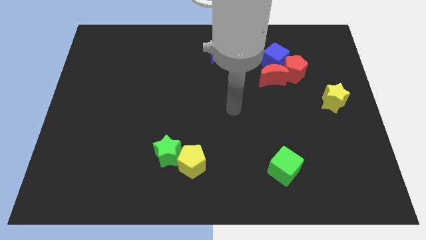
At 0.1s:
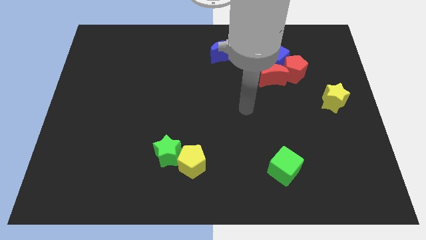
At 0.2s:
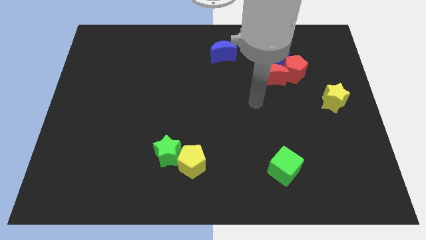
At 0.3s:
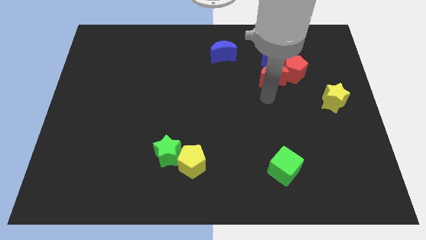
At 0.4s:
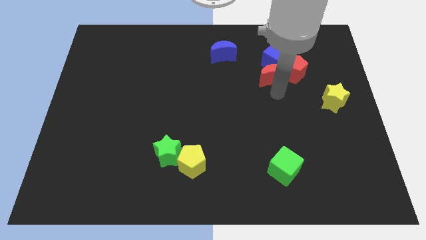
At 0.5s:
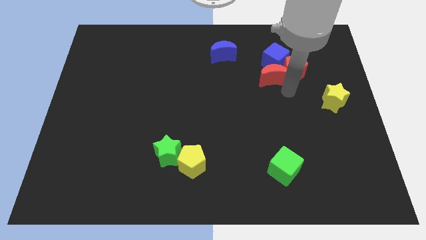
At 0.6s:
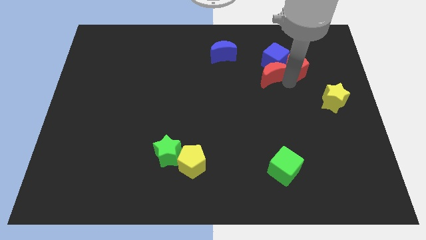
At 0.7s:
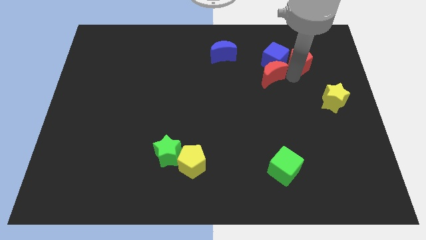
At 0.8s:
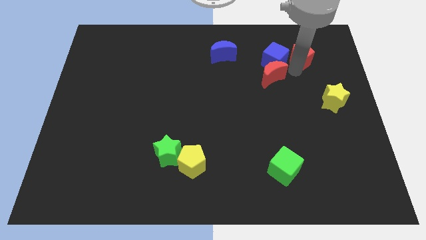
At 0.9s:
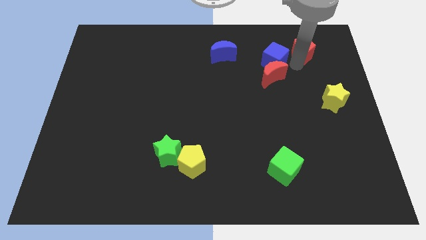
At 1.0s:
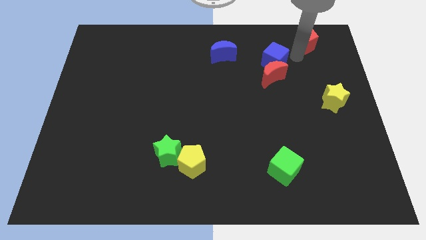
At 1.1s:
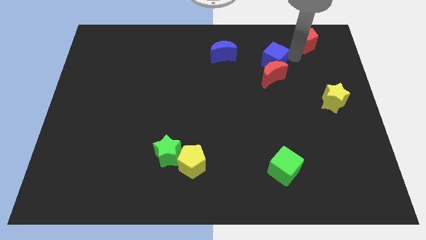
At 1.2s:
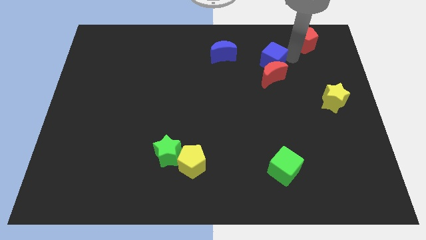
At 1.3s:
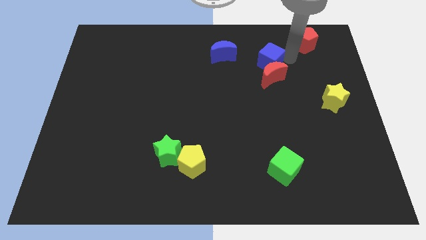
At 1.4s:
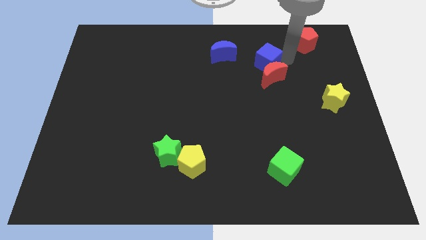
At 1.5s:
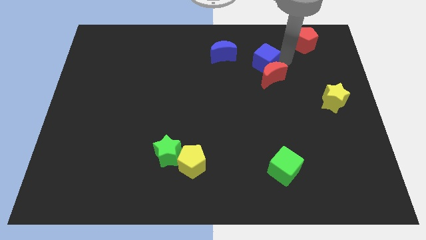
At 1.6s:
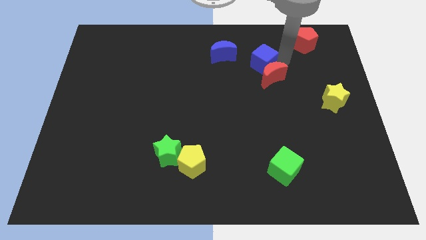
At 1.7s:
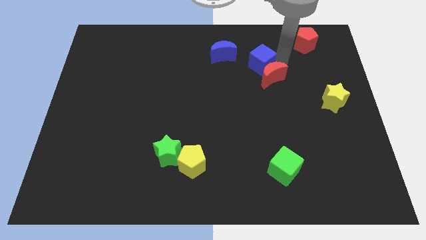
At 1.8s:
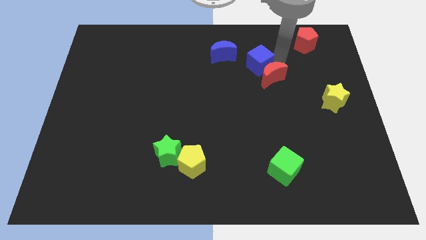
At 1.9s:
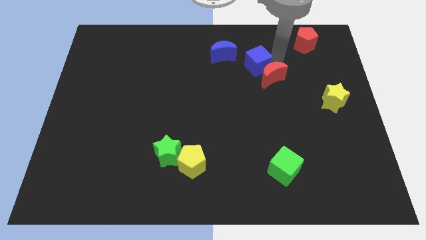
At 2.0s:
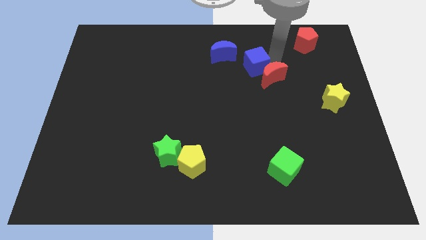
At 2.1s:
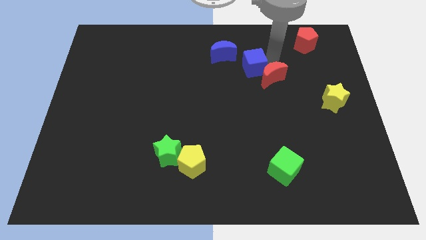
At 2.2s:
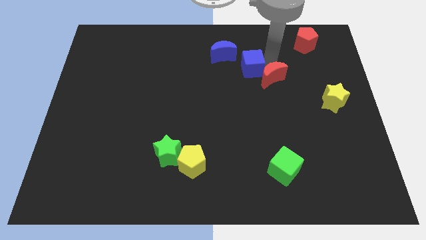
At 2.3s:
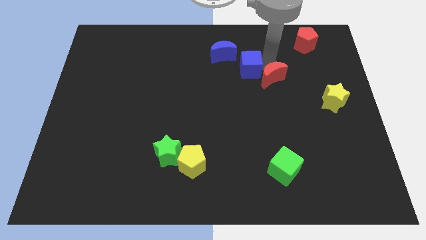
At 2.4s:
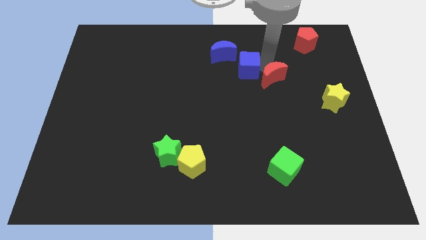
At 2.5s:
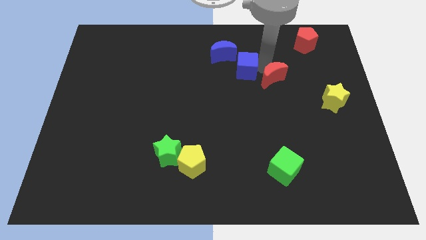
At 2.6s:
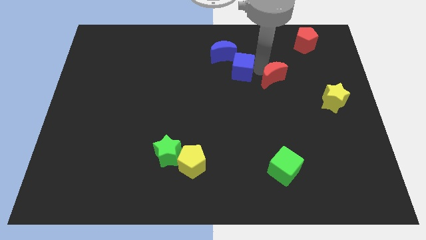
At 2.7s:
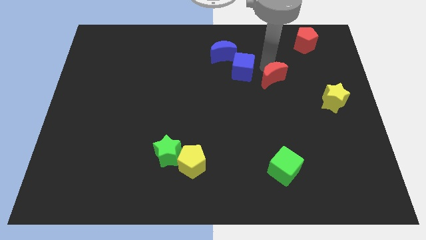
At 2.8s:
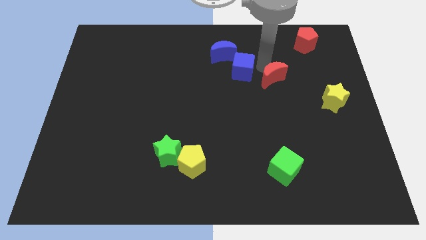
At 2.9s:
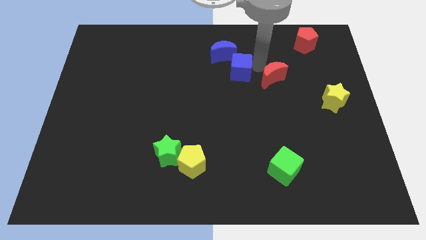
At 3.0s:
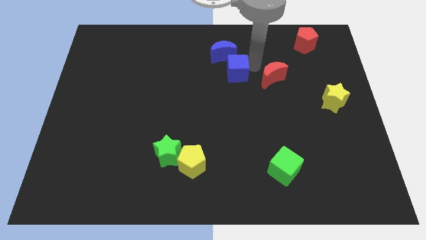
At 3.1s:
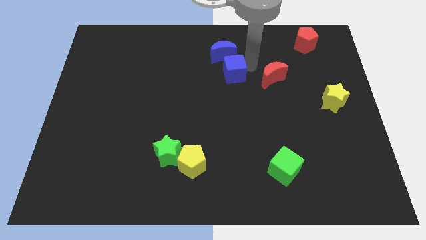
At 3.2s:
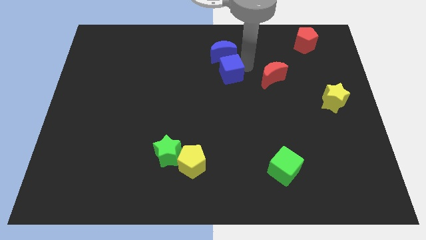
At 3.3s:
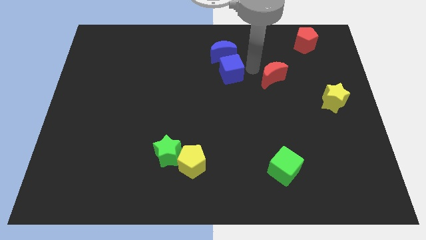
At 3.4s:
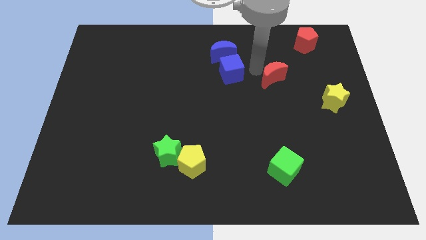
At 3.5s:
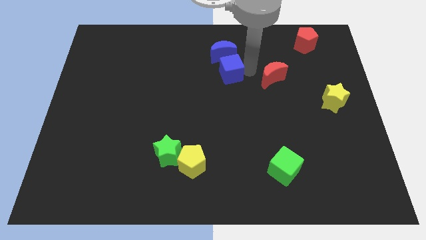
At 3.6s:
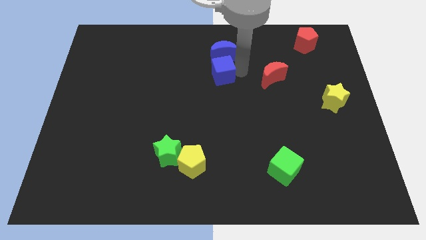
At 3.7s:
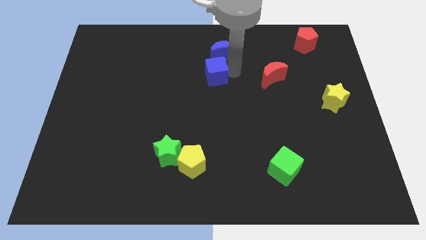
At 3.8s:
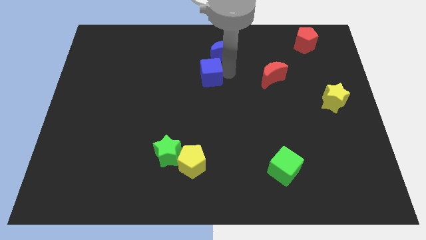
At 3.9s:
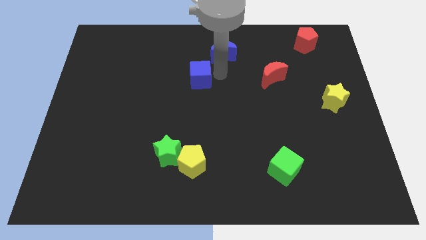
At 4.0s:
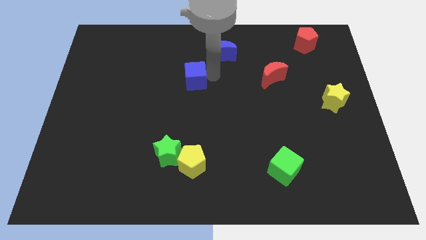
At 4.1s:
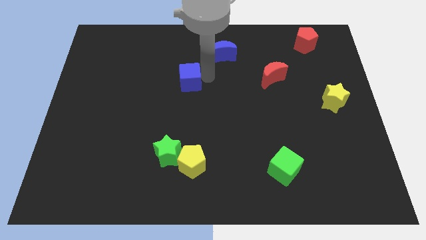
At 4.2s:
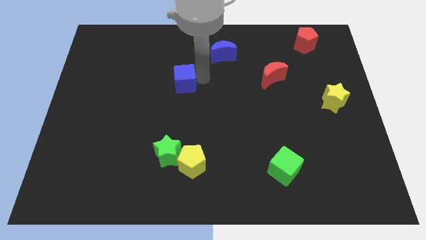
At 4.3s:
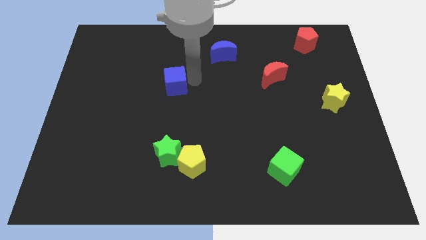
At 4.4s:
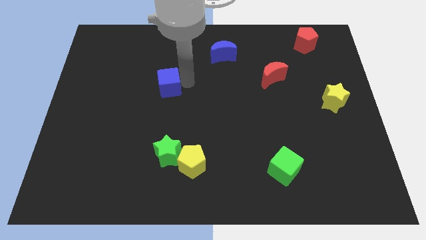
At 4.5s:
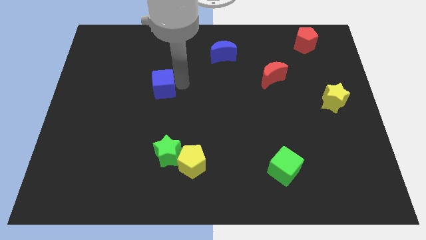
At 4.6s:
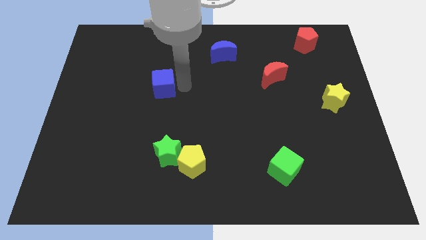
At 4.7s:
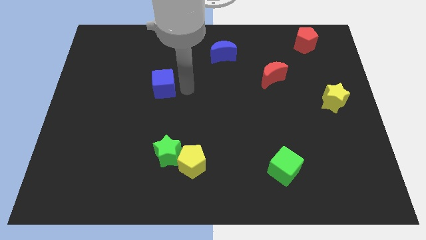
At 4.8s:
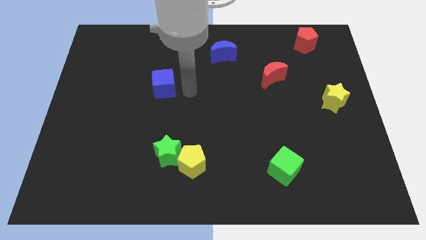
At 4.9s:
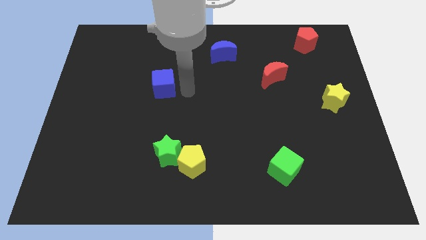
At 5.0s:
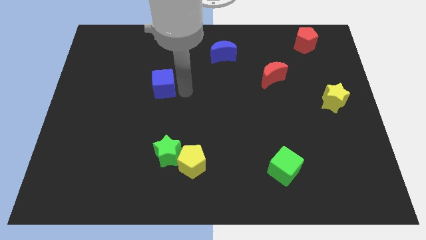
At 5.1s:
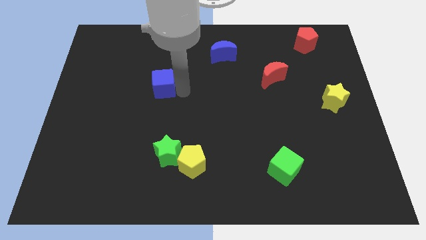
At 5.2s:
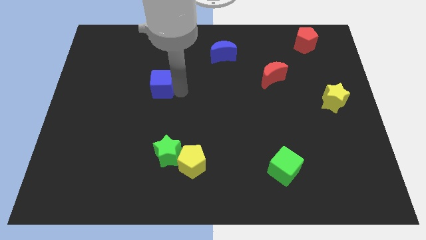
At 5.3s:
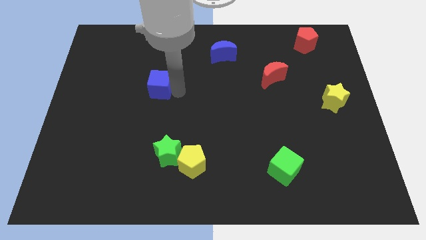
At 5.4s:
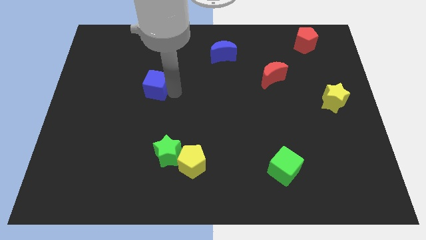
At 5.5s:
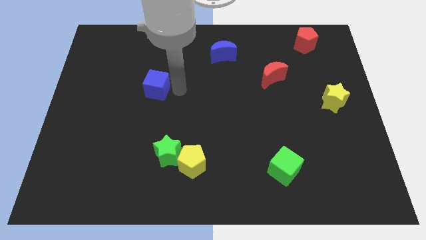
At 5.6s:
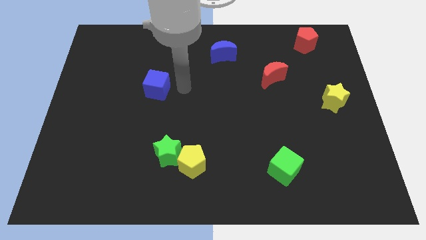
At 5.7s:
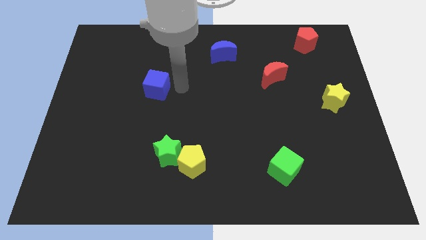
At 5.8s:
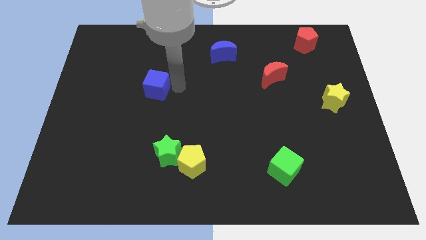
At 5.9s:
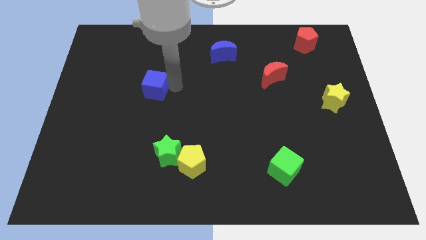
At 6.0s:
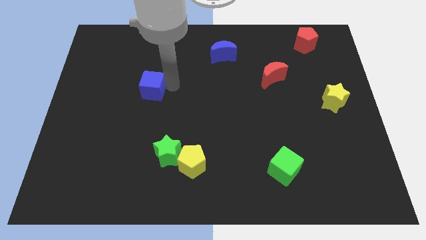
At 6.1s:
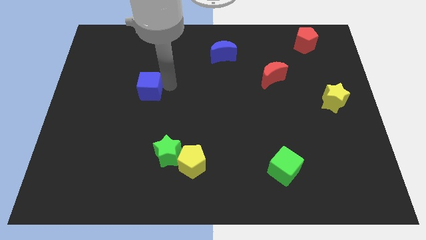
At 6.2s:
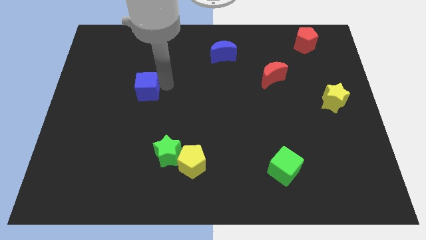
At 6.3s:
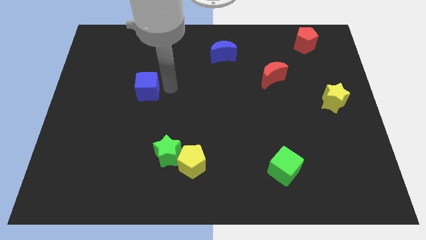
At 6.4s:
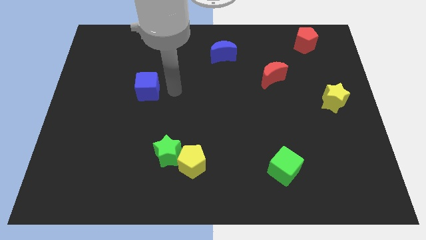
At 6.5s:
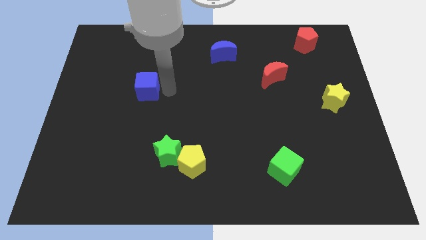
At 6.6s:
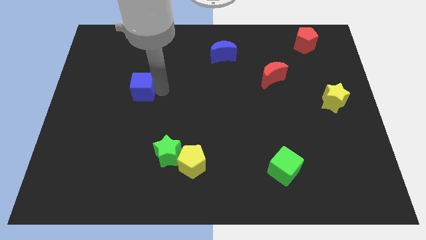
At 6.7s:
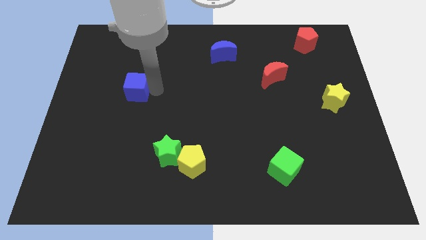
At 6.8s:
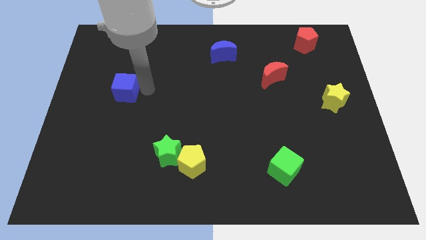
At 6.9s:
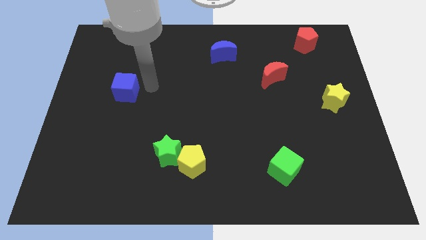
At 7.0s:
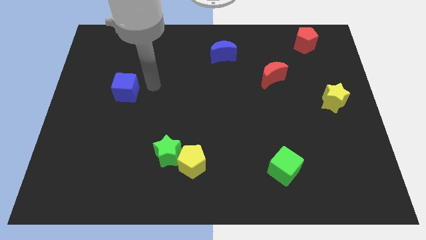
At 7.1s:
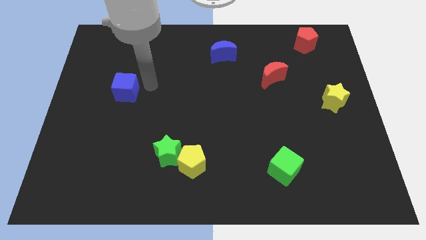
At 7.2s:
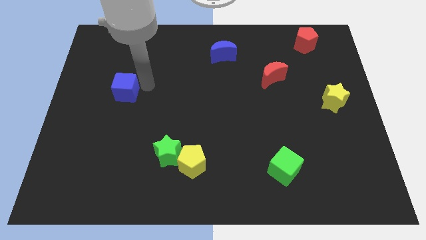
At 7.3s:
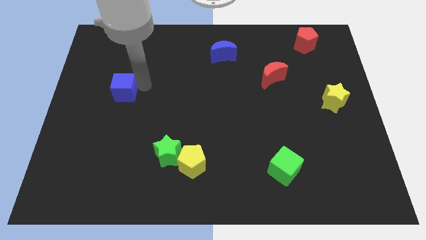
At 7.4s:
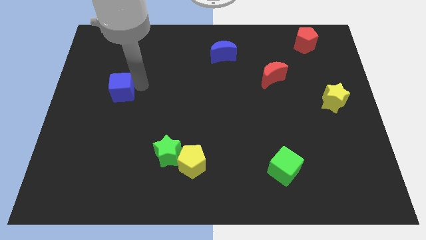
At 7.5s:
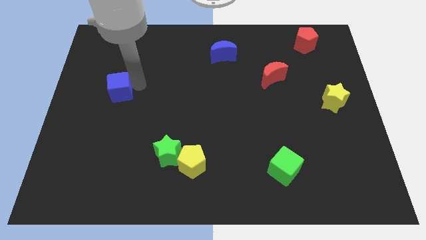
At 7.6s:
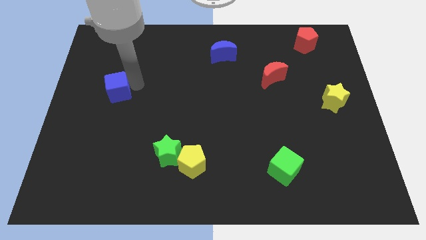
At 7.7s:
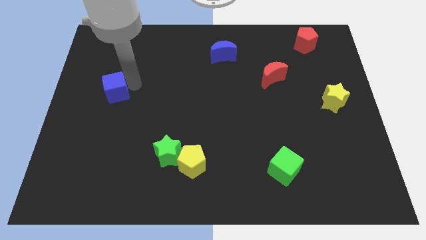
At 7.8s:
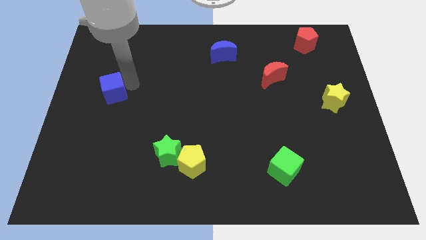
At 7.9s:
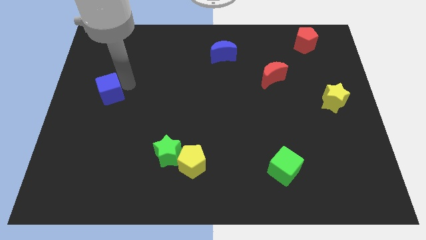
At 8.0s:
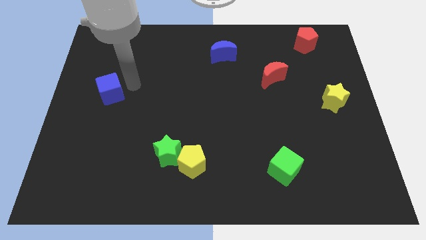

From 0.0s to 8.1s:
push the blue cube to the left side
